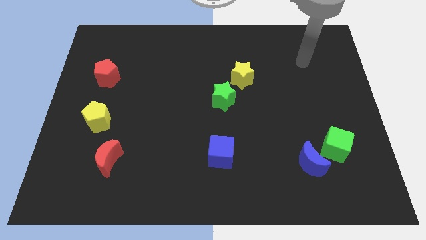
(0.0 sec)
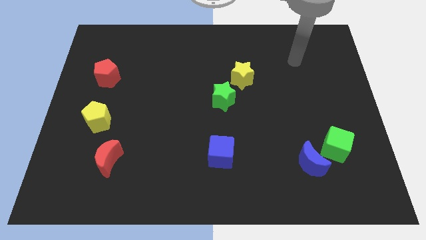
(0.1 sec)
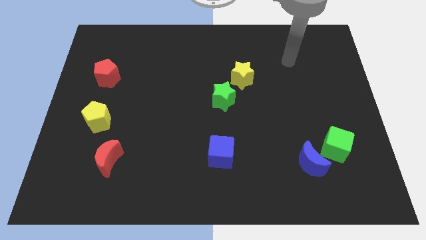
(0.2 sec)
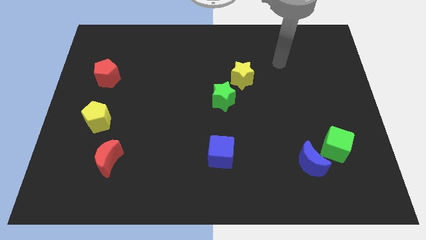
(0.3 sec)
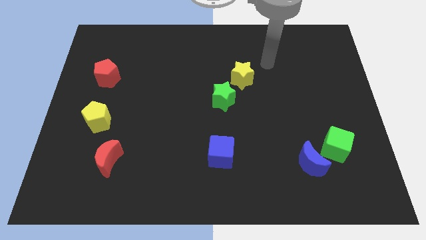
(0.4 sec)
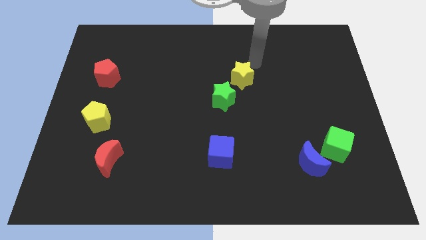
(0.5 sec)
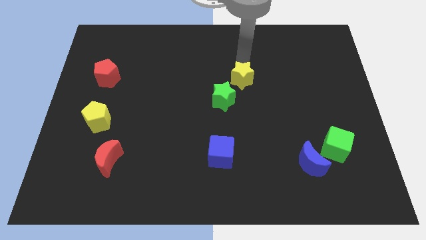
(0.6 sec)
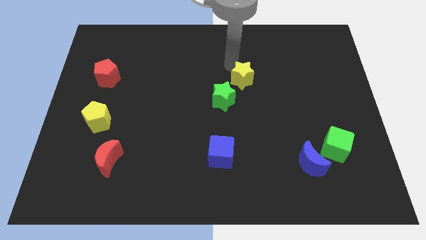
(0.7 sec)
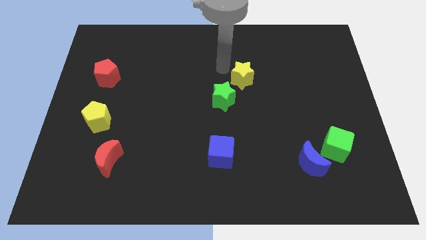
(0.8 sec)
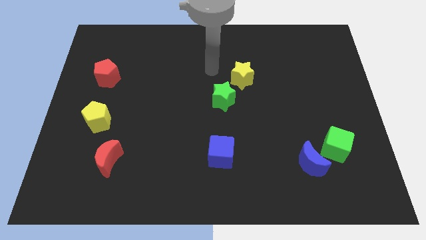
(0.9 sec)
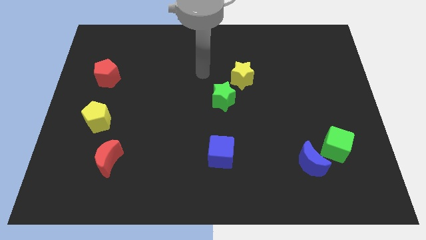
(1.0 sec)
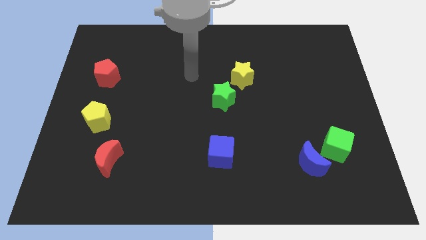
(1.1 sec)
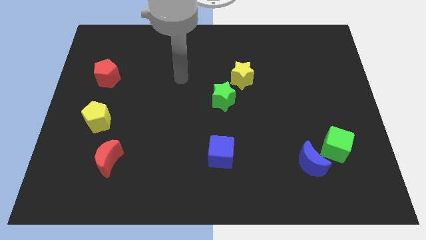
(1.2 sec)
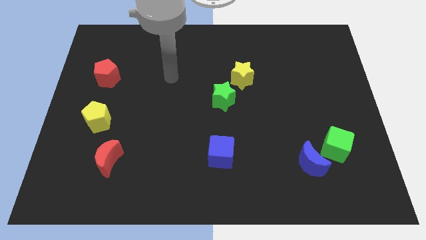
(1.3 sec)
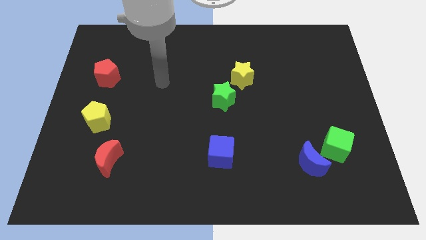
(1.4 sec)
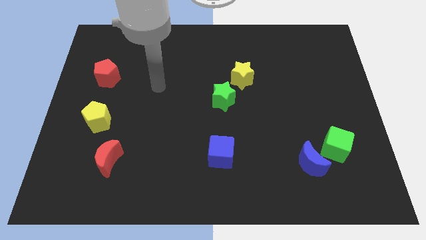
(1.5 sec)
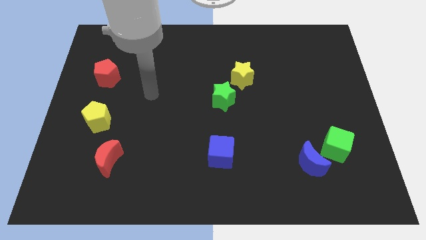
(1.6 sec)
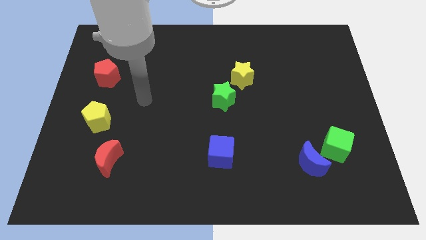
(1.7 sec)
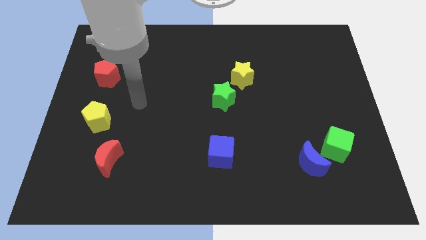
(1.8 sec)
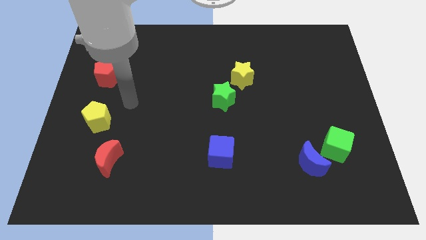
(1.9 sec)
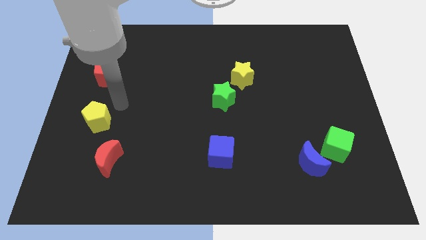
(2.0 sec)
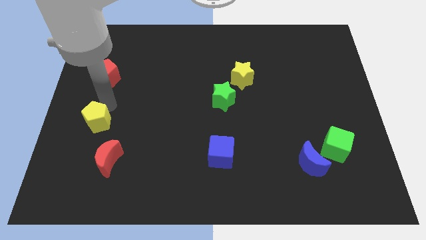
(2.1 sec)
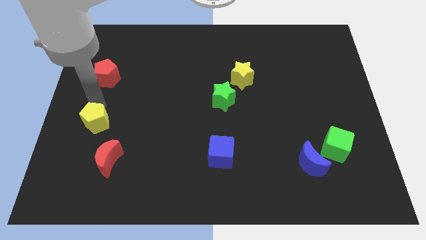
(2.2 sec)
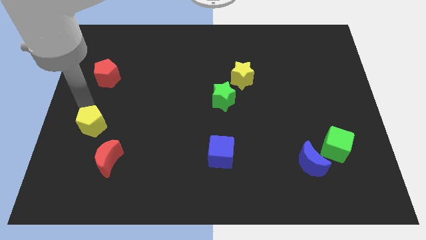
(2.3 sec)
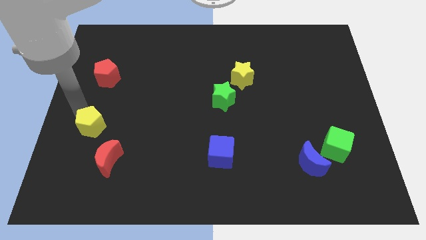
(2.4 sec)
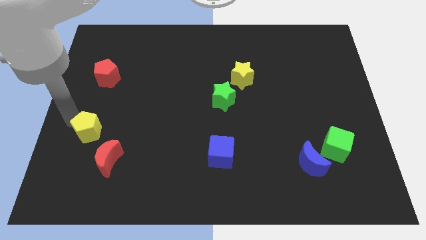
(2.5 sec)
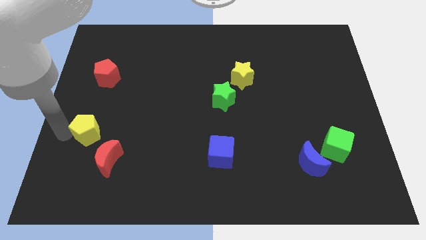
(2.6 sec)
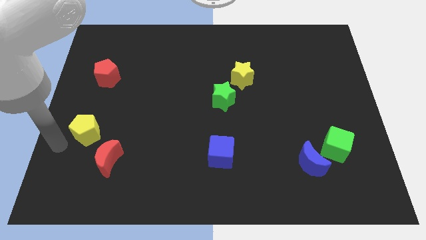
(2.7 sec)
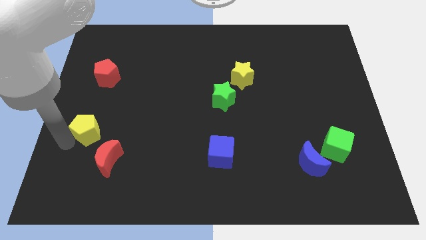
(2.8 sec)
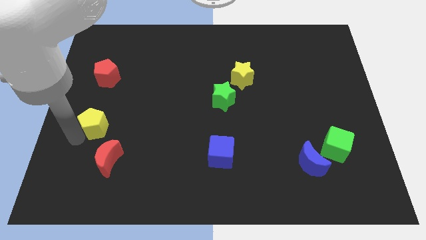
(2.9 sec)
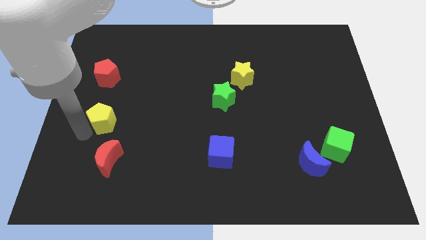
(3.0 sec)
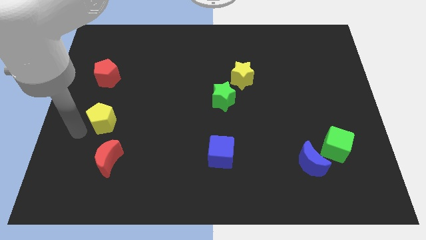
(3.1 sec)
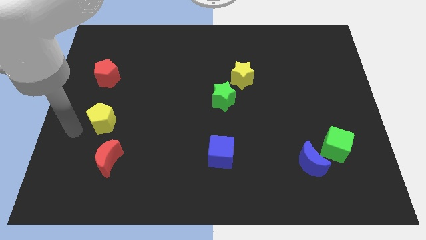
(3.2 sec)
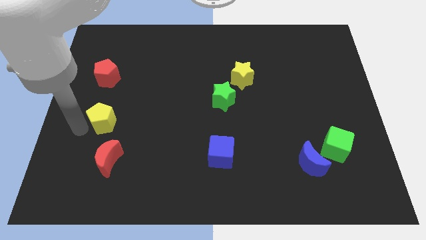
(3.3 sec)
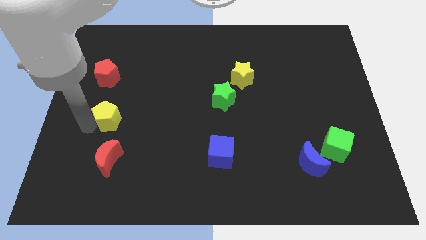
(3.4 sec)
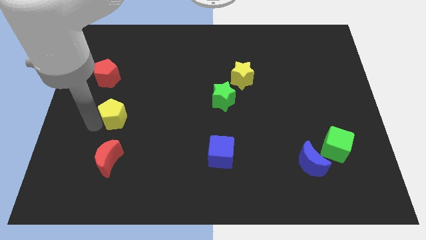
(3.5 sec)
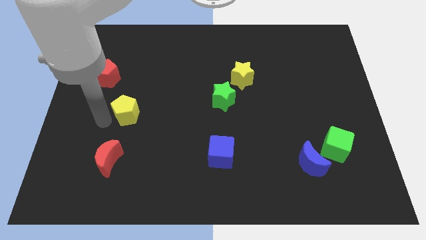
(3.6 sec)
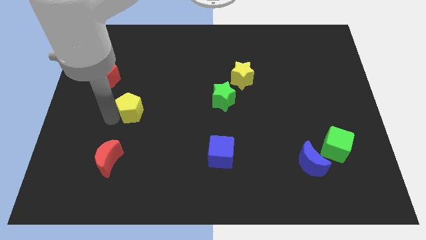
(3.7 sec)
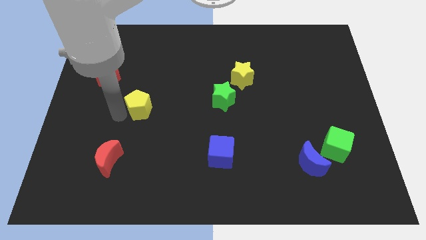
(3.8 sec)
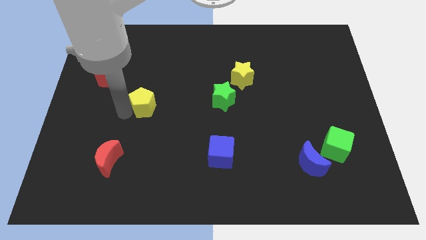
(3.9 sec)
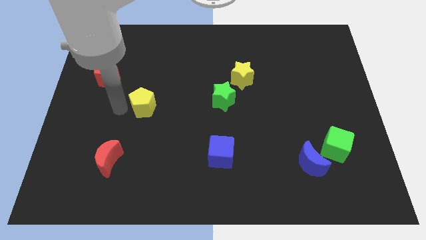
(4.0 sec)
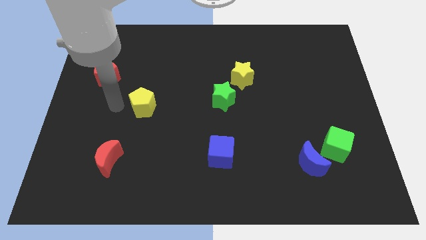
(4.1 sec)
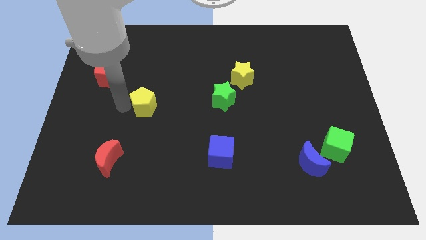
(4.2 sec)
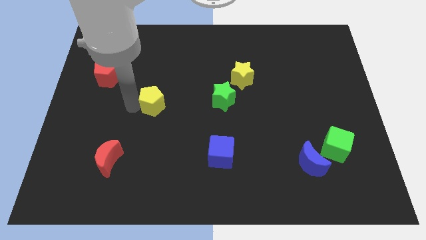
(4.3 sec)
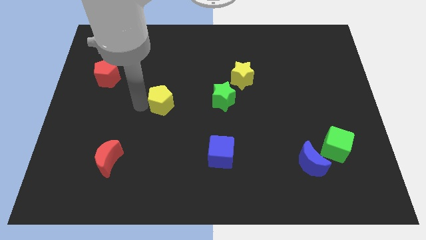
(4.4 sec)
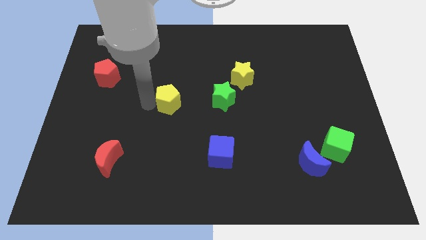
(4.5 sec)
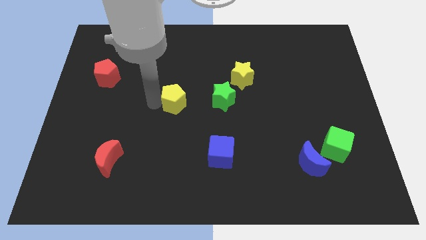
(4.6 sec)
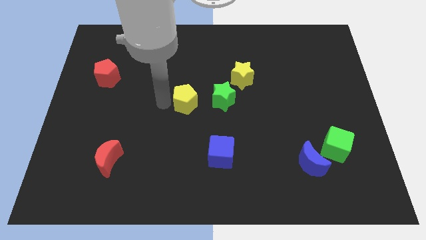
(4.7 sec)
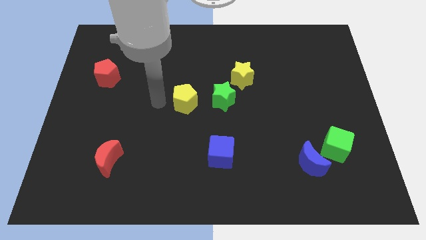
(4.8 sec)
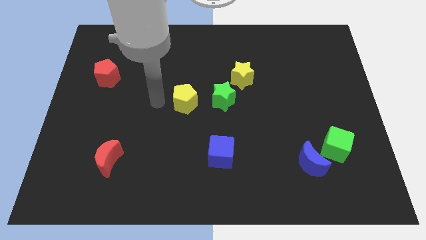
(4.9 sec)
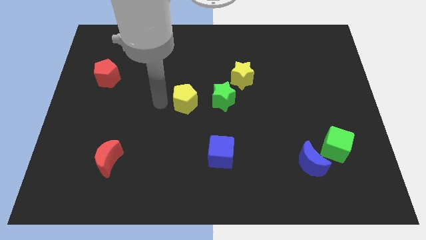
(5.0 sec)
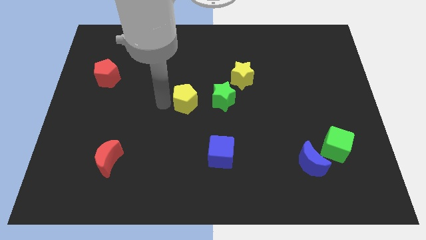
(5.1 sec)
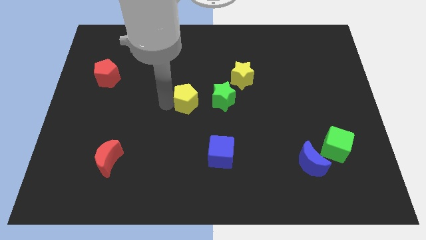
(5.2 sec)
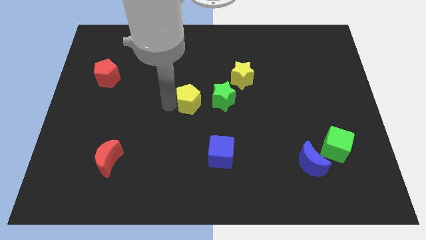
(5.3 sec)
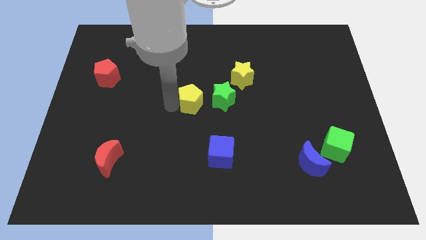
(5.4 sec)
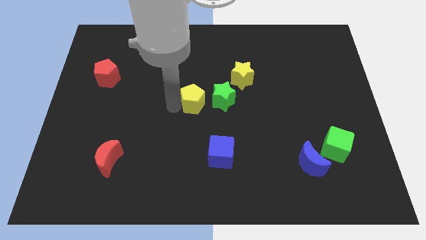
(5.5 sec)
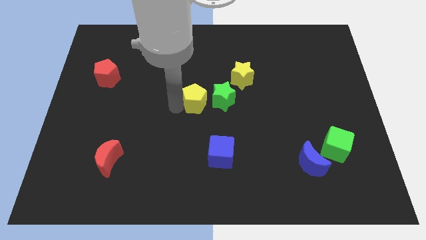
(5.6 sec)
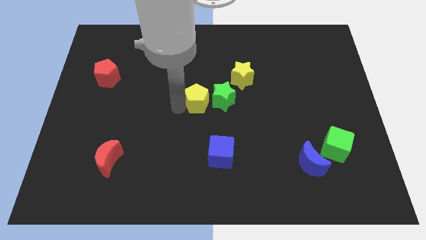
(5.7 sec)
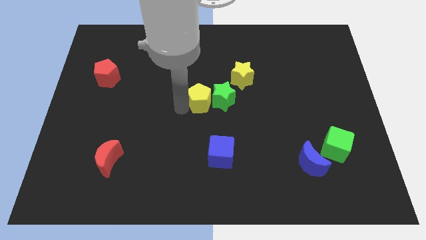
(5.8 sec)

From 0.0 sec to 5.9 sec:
move the yellow pentagon towards the green star

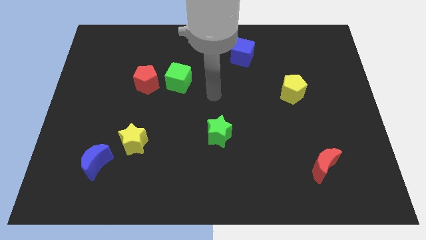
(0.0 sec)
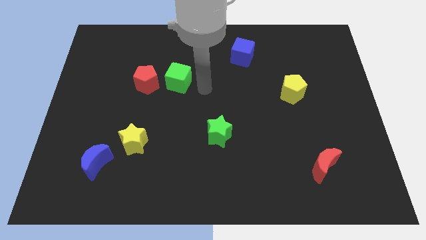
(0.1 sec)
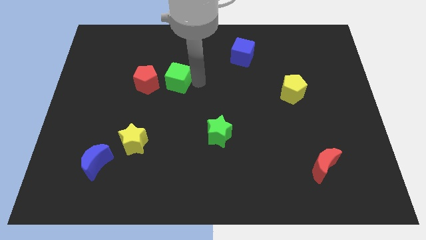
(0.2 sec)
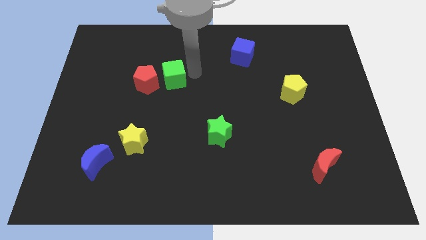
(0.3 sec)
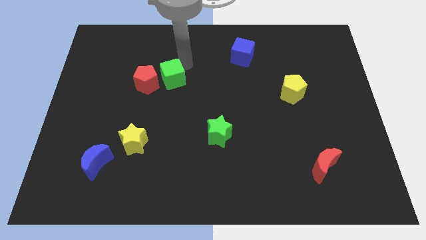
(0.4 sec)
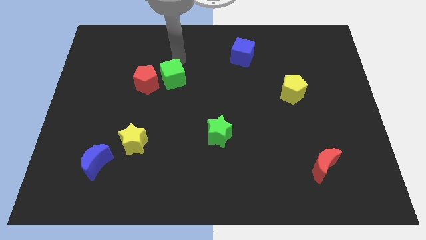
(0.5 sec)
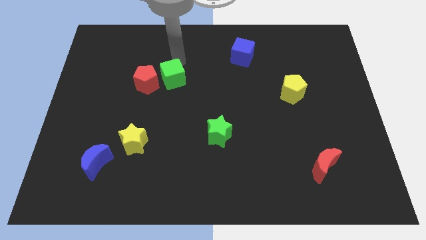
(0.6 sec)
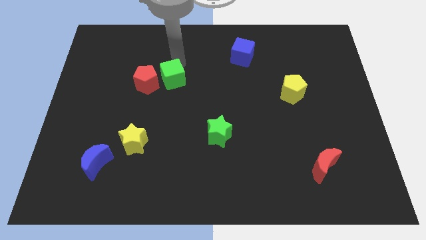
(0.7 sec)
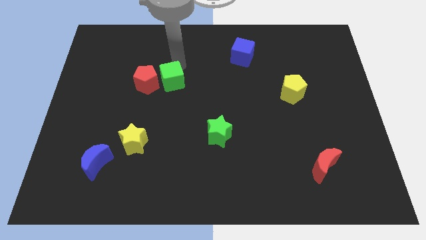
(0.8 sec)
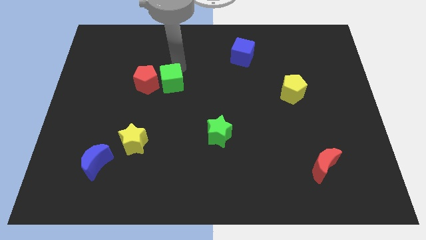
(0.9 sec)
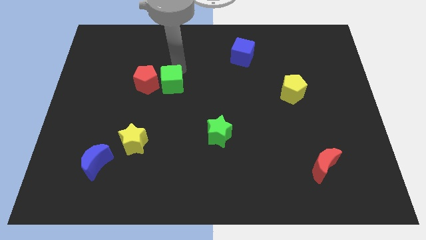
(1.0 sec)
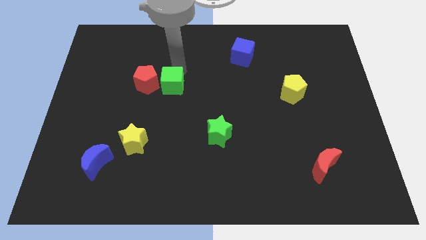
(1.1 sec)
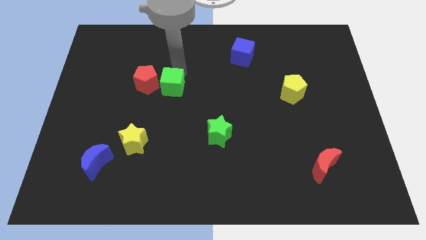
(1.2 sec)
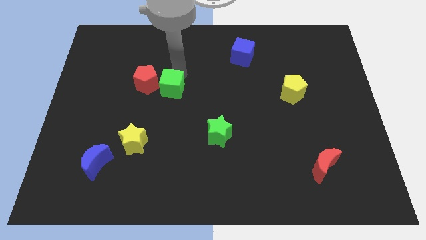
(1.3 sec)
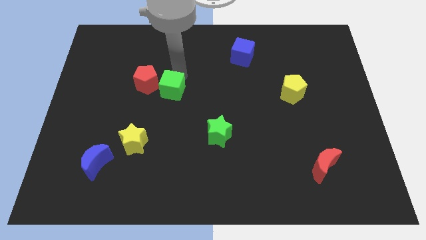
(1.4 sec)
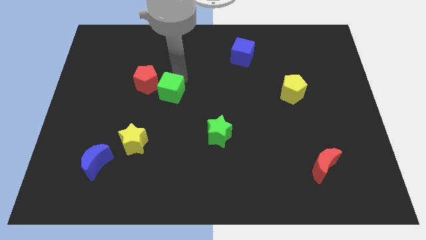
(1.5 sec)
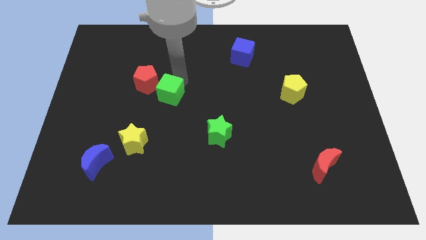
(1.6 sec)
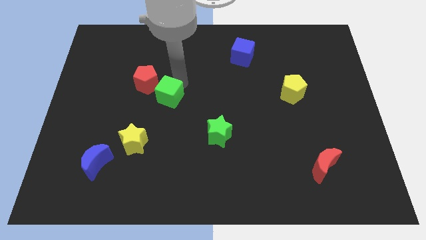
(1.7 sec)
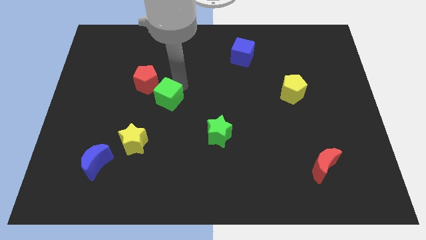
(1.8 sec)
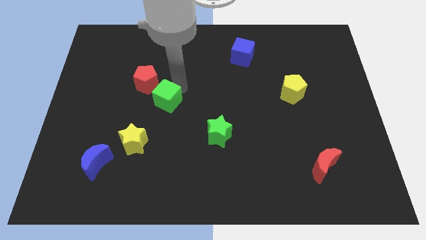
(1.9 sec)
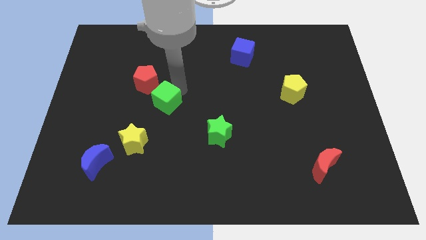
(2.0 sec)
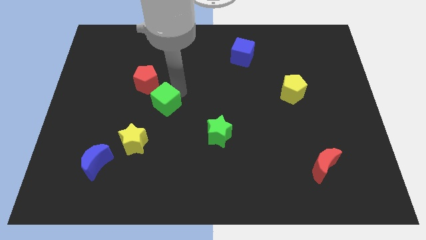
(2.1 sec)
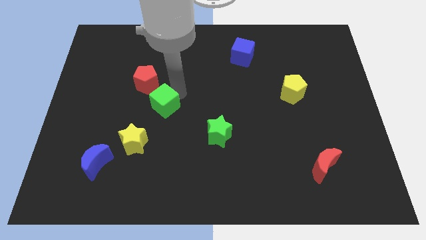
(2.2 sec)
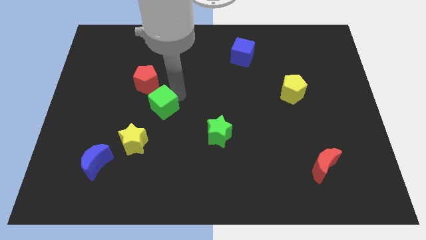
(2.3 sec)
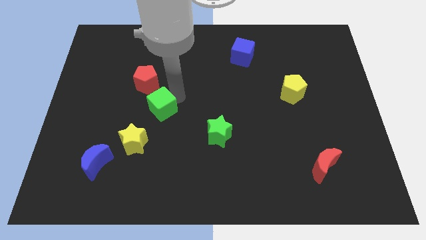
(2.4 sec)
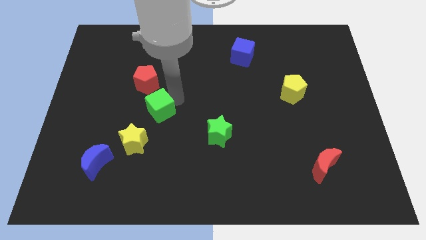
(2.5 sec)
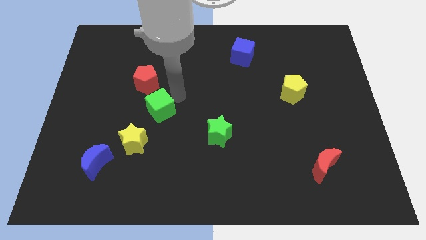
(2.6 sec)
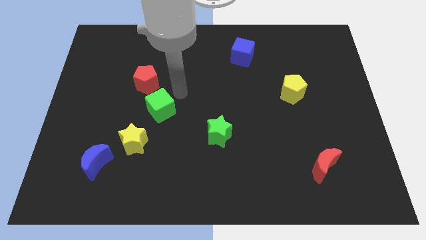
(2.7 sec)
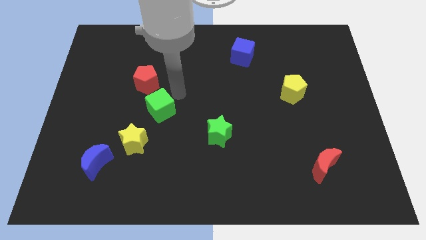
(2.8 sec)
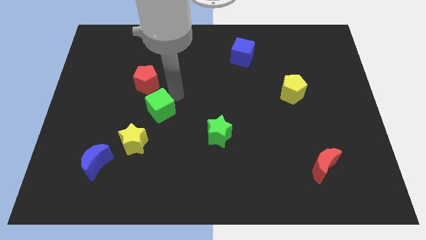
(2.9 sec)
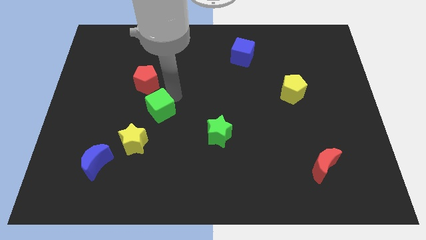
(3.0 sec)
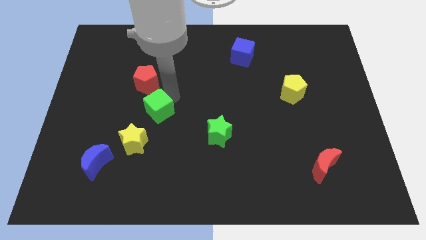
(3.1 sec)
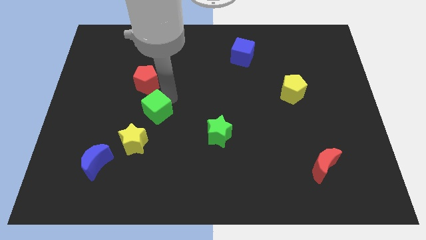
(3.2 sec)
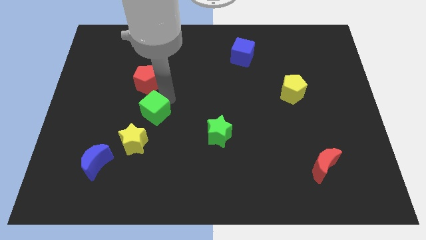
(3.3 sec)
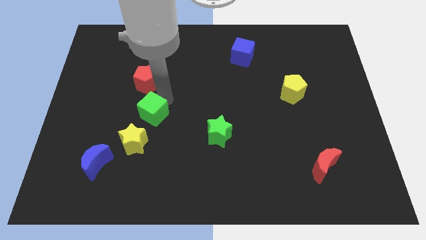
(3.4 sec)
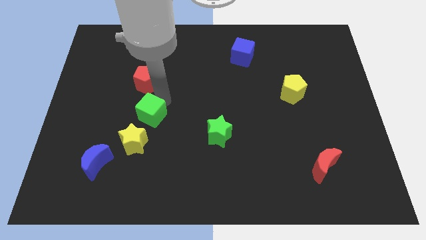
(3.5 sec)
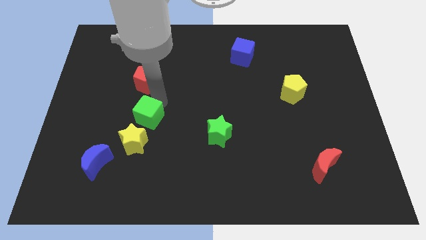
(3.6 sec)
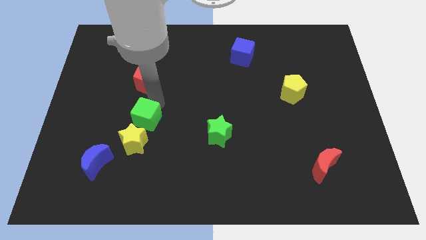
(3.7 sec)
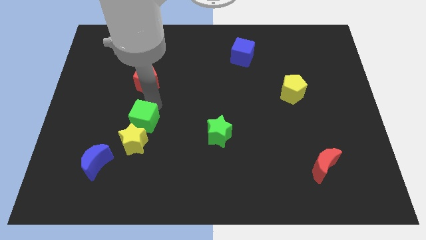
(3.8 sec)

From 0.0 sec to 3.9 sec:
move the green cube next to the yellow star
